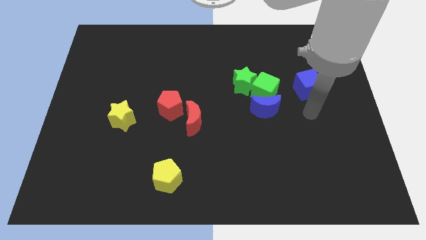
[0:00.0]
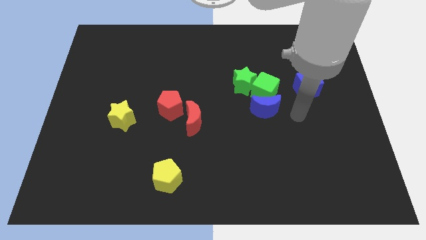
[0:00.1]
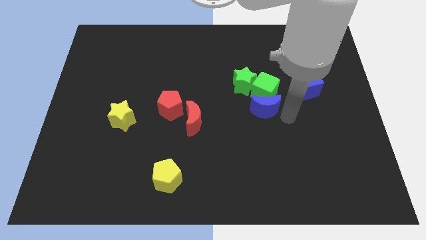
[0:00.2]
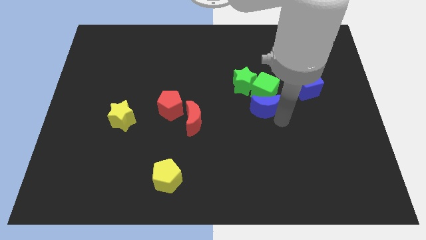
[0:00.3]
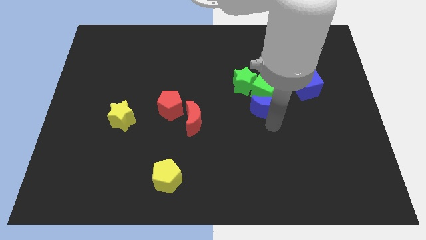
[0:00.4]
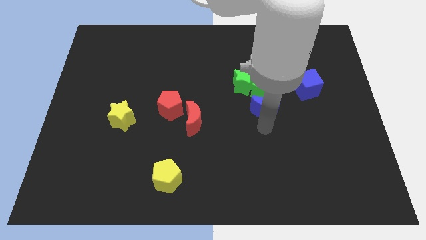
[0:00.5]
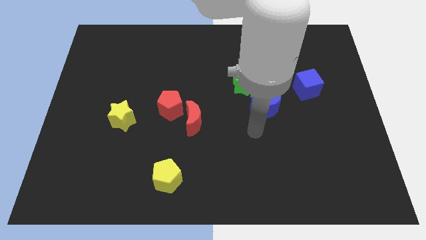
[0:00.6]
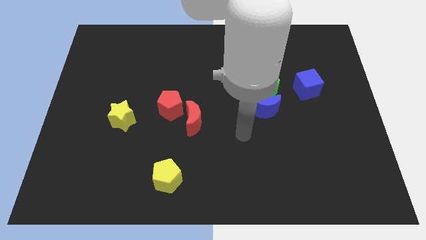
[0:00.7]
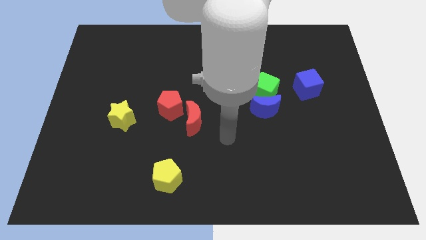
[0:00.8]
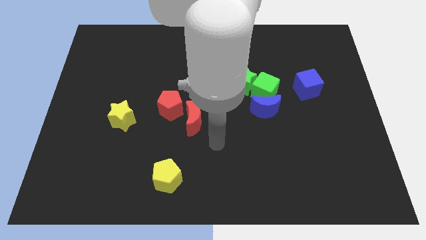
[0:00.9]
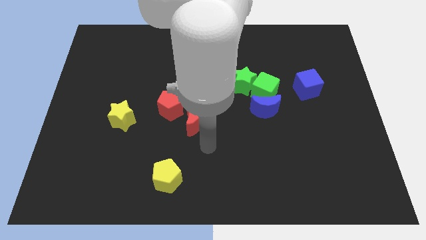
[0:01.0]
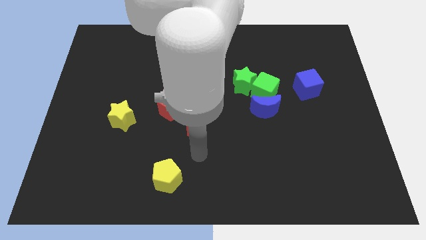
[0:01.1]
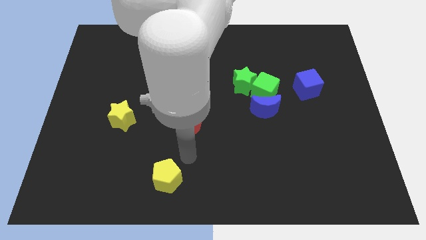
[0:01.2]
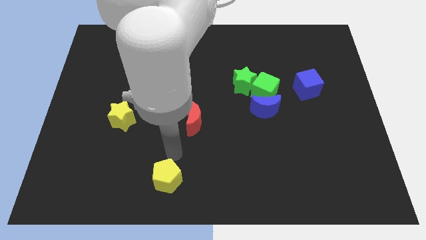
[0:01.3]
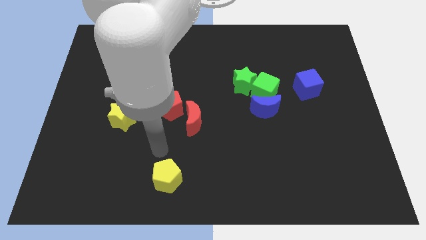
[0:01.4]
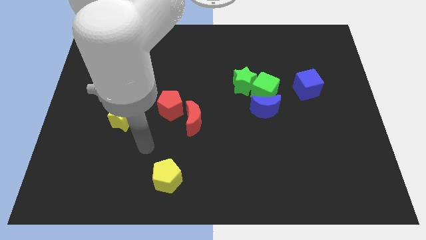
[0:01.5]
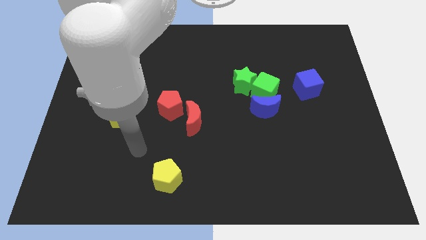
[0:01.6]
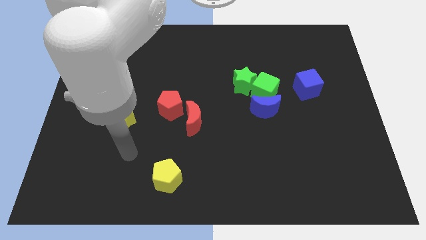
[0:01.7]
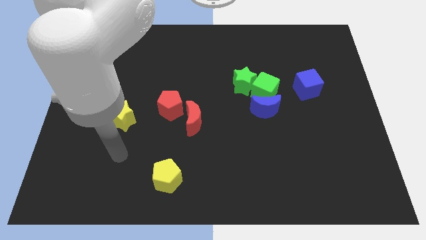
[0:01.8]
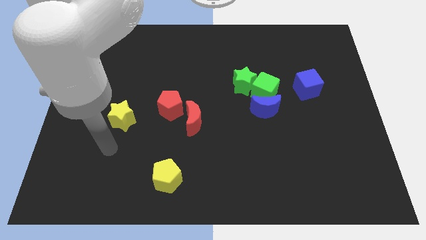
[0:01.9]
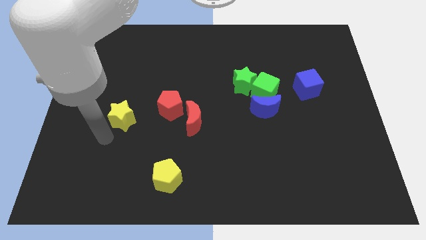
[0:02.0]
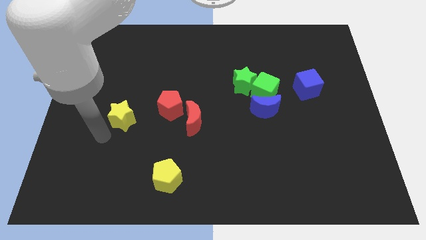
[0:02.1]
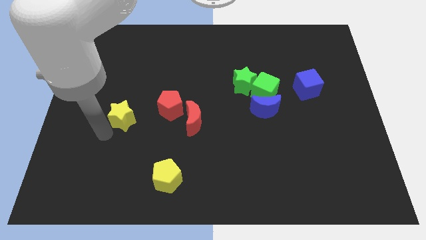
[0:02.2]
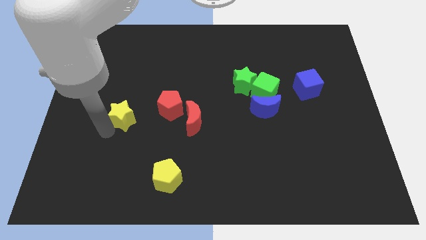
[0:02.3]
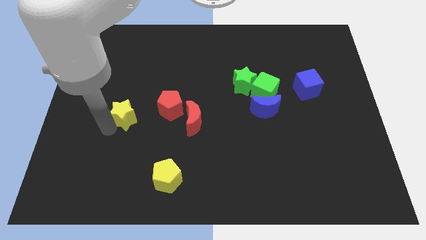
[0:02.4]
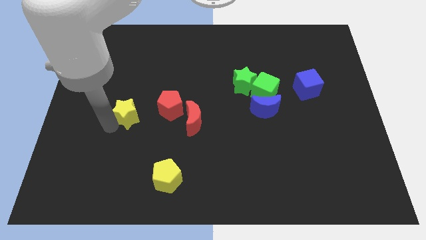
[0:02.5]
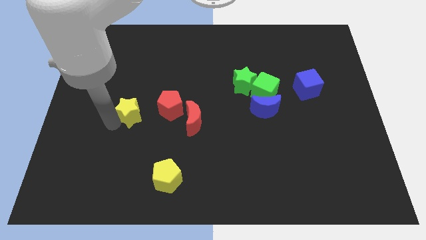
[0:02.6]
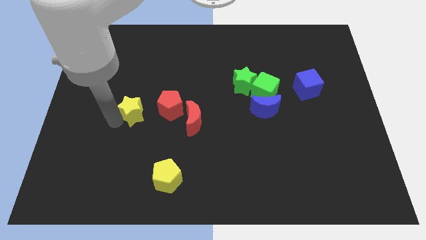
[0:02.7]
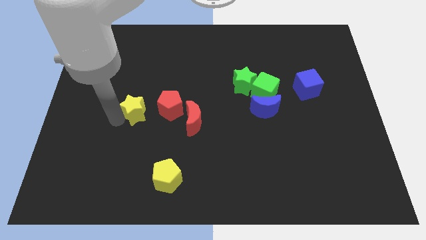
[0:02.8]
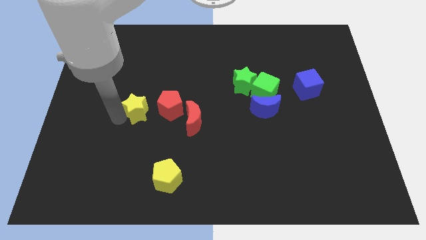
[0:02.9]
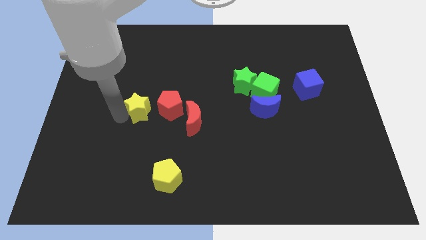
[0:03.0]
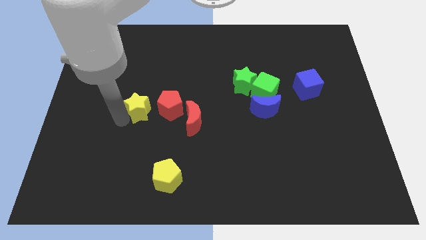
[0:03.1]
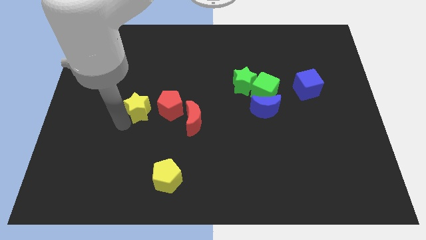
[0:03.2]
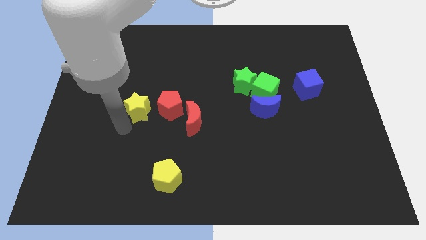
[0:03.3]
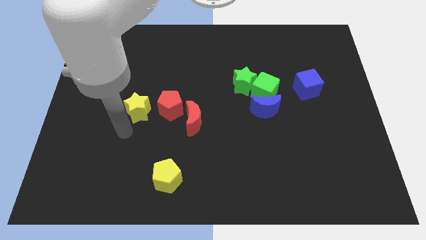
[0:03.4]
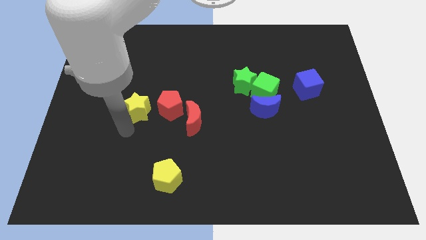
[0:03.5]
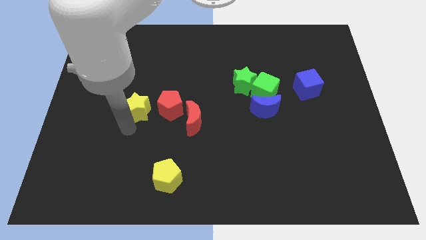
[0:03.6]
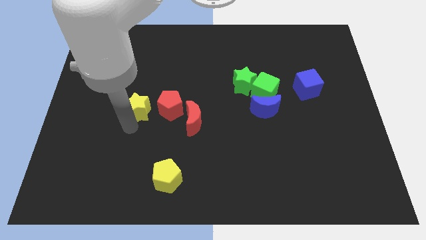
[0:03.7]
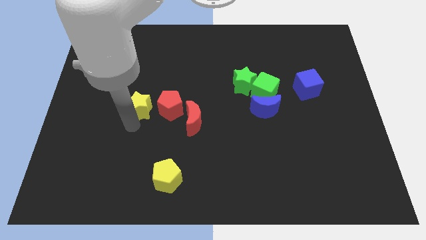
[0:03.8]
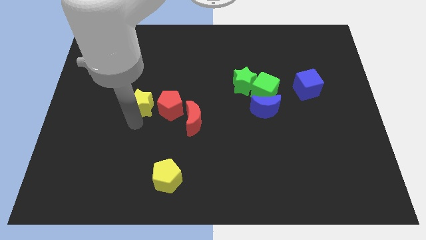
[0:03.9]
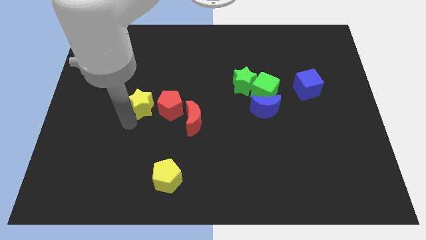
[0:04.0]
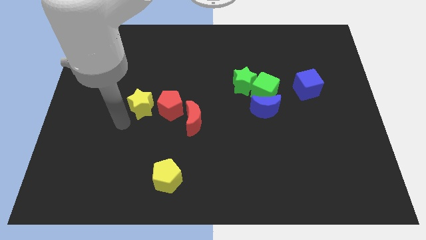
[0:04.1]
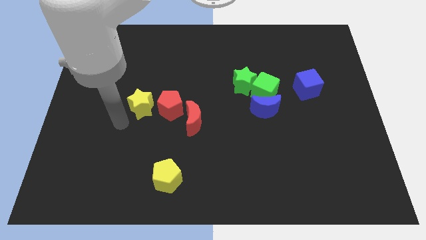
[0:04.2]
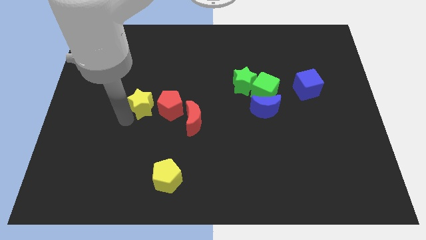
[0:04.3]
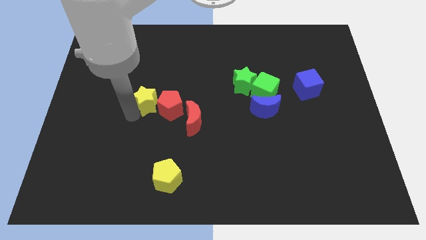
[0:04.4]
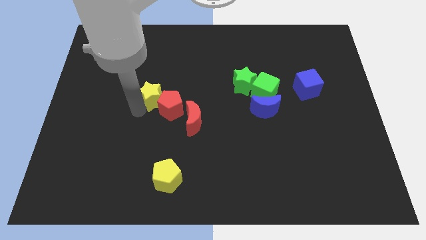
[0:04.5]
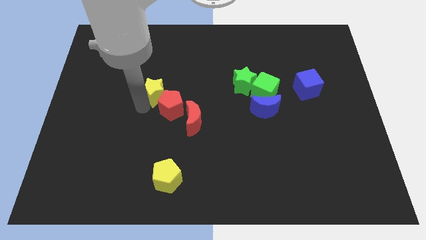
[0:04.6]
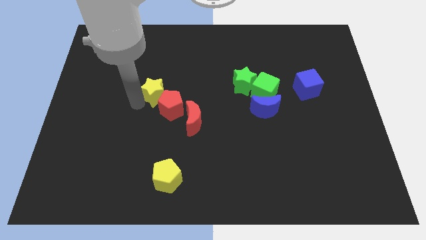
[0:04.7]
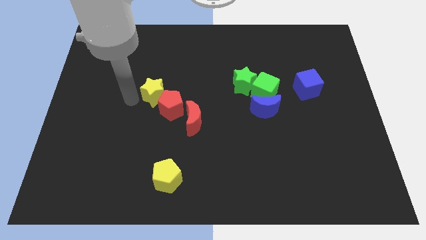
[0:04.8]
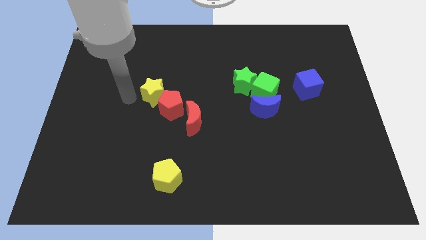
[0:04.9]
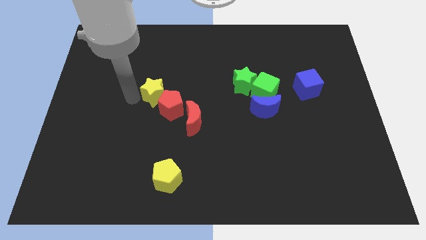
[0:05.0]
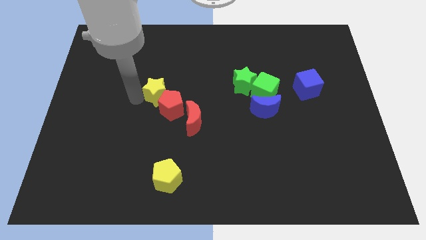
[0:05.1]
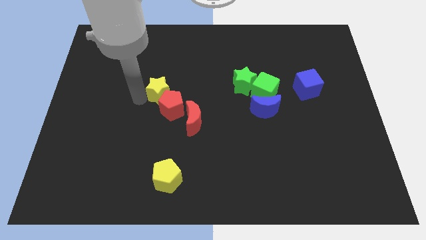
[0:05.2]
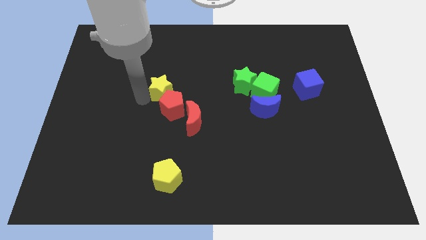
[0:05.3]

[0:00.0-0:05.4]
put the yellow star to the middle of the board

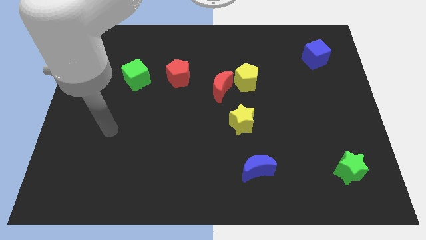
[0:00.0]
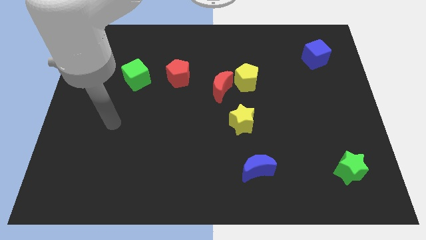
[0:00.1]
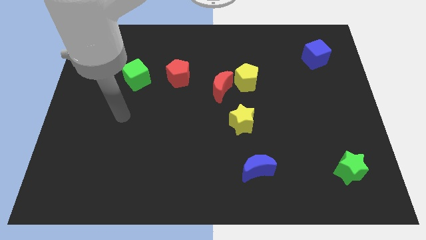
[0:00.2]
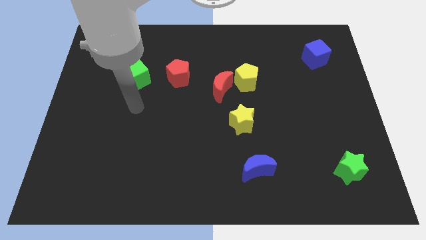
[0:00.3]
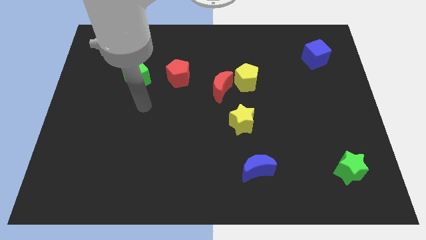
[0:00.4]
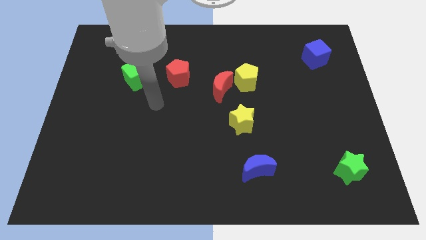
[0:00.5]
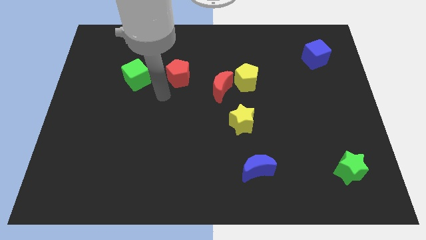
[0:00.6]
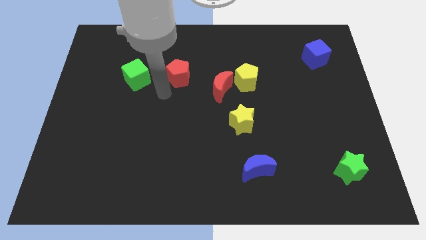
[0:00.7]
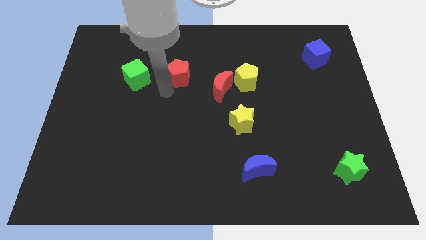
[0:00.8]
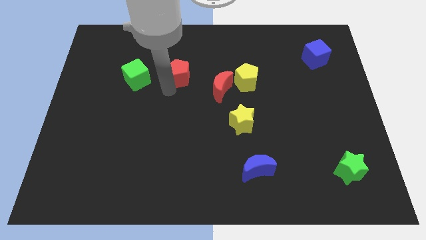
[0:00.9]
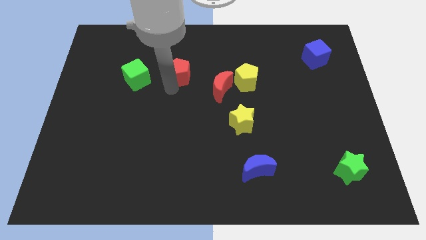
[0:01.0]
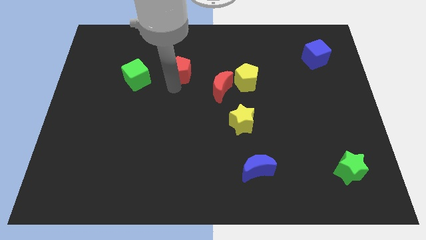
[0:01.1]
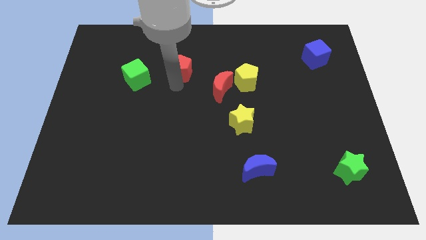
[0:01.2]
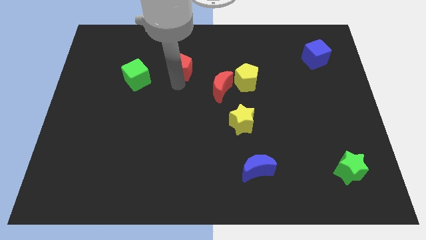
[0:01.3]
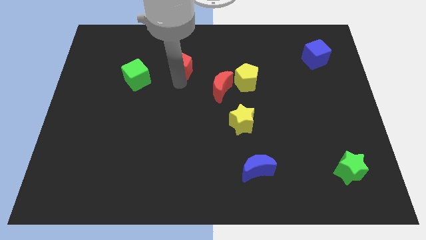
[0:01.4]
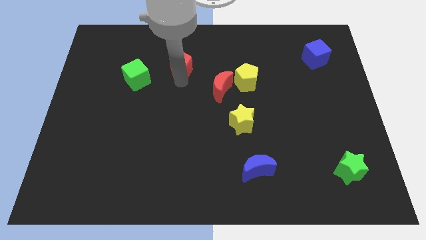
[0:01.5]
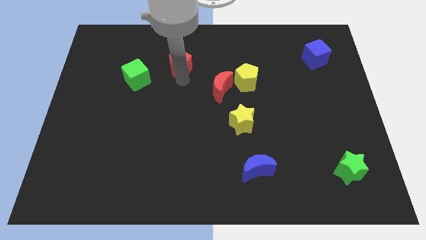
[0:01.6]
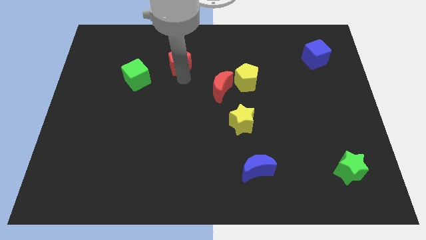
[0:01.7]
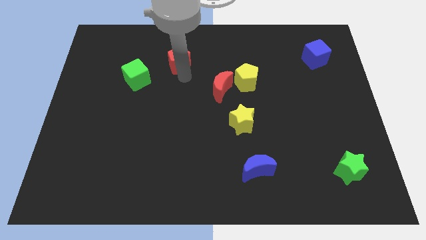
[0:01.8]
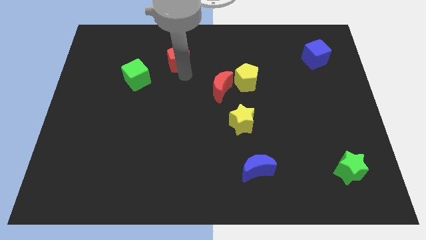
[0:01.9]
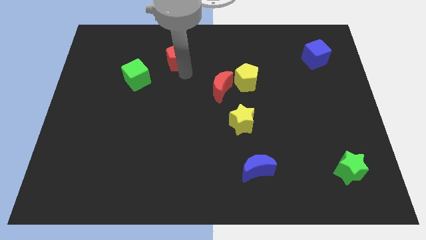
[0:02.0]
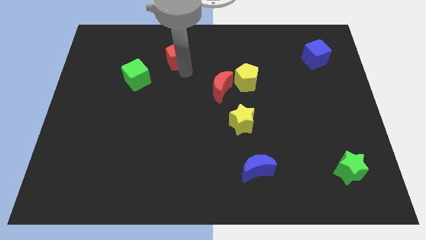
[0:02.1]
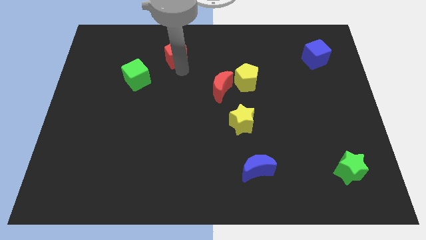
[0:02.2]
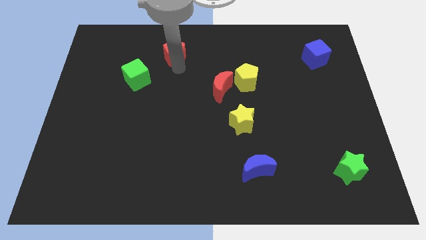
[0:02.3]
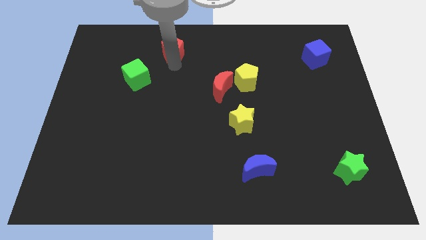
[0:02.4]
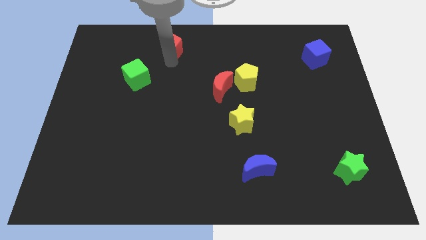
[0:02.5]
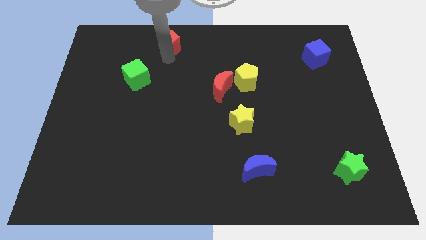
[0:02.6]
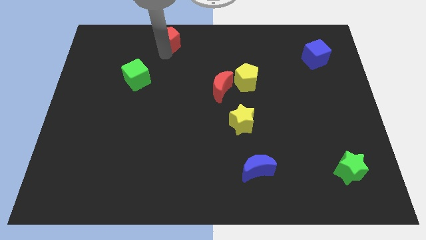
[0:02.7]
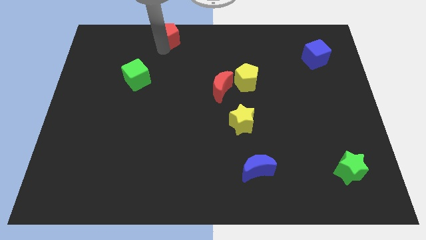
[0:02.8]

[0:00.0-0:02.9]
put the red pentagon to the top
